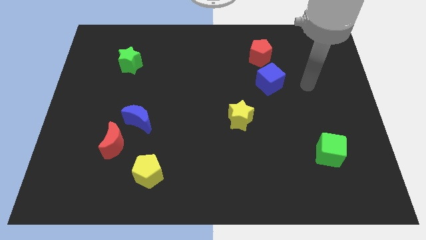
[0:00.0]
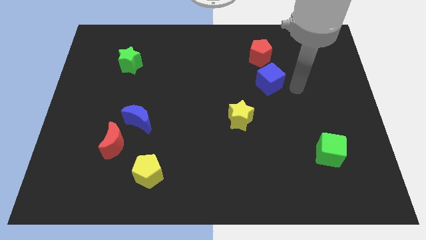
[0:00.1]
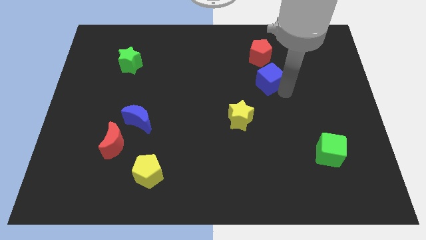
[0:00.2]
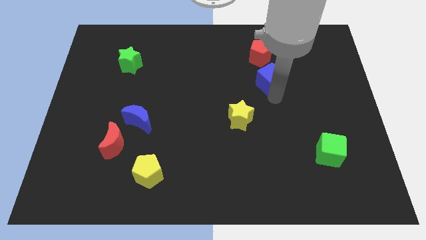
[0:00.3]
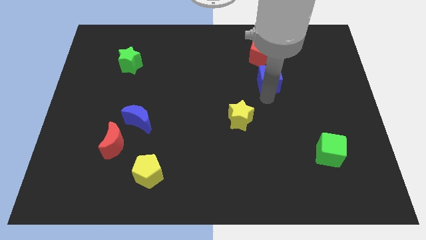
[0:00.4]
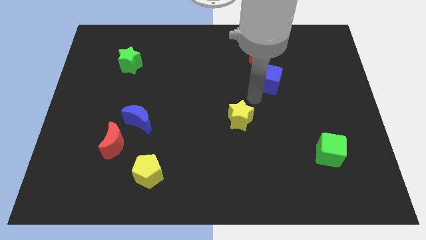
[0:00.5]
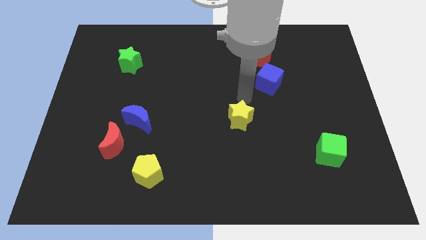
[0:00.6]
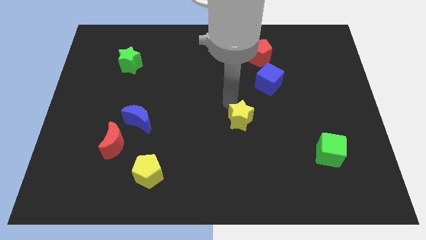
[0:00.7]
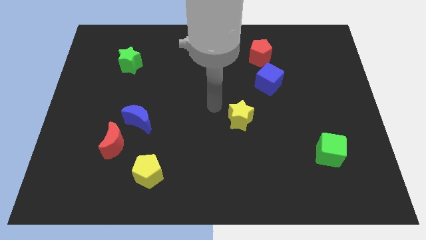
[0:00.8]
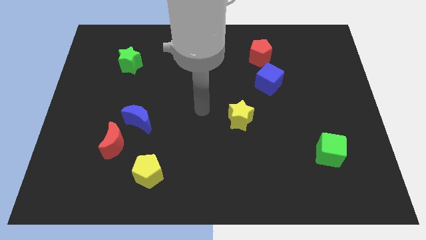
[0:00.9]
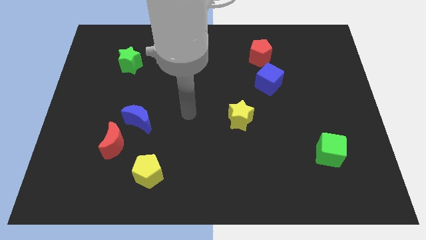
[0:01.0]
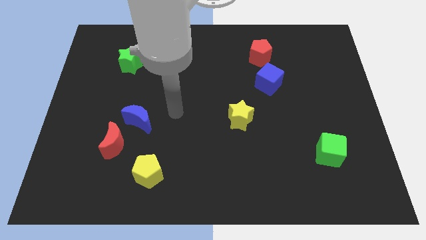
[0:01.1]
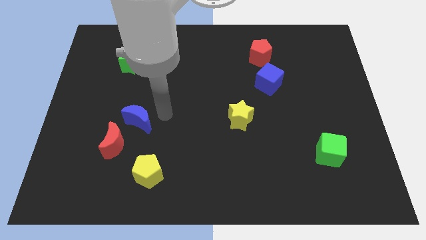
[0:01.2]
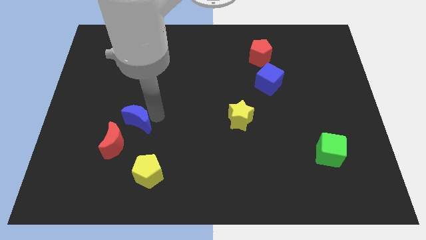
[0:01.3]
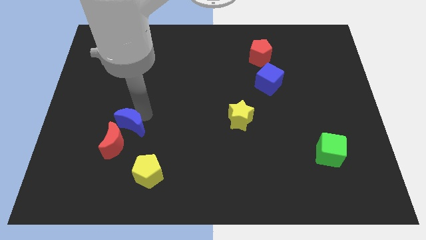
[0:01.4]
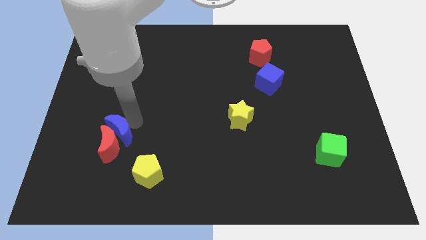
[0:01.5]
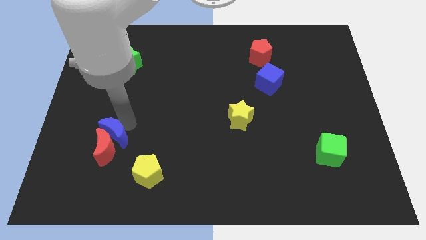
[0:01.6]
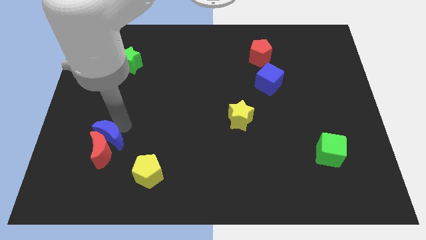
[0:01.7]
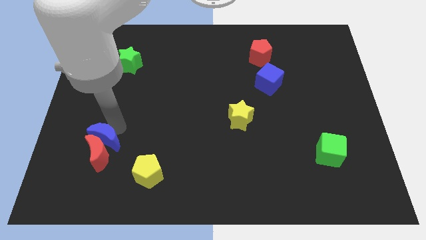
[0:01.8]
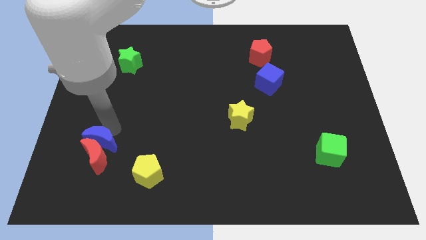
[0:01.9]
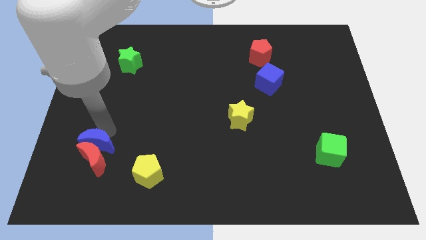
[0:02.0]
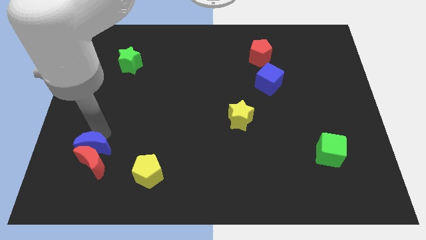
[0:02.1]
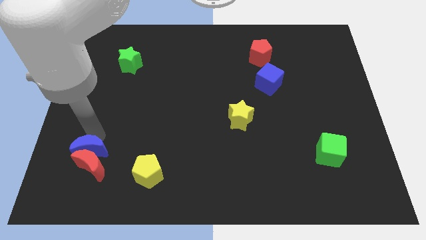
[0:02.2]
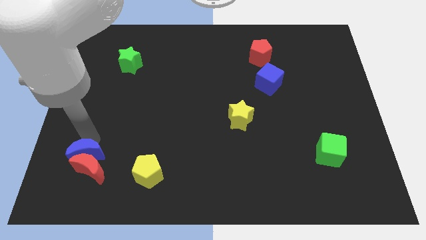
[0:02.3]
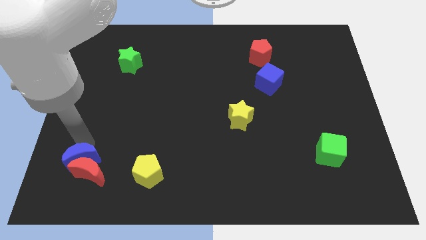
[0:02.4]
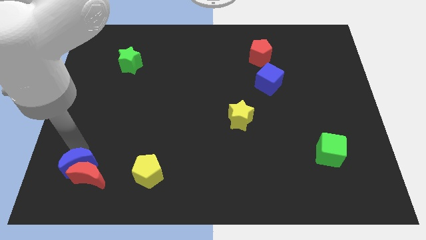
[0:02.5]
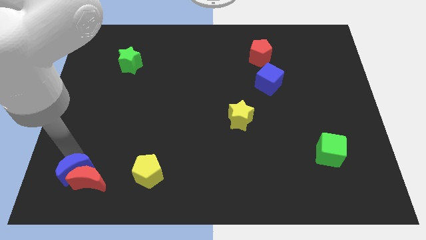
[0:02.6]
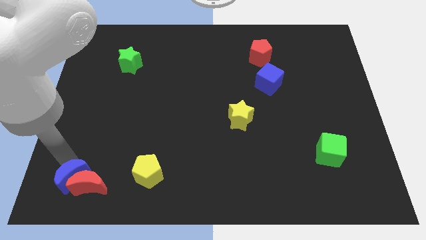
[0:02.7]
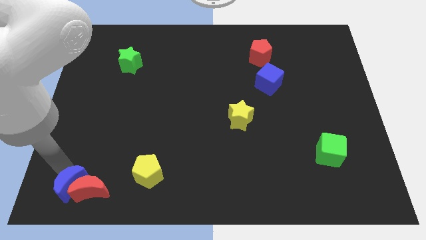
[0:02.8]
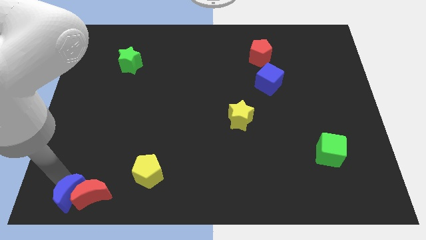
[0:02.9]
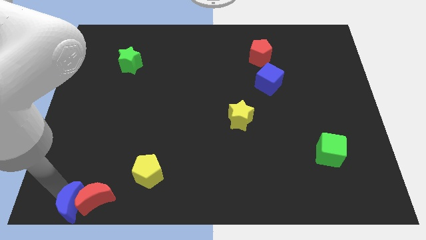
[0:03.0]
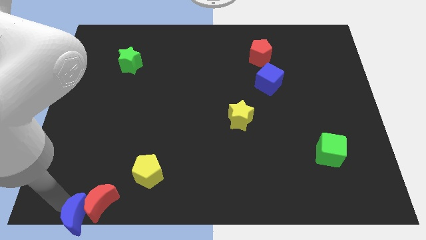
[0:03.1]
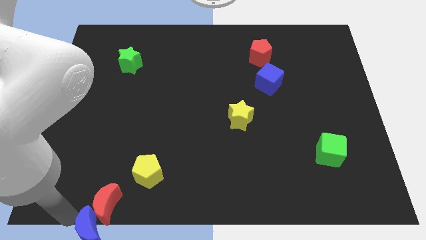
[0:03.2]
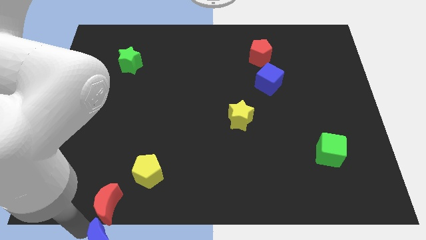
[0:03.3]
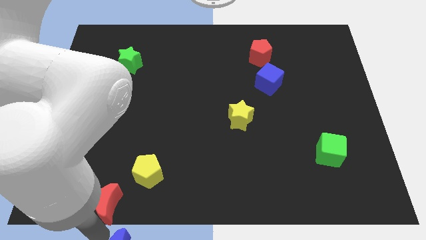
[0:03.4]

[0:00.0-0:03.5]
pull the red moon apart from the blue moon

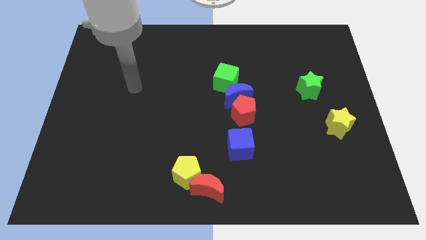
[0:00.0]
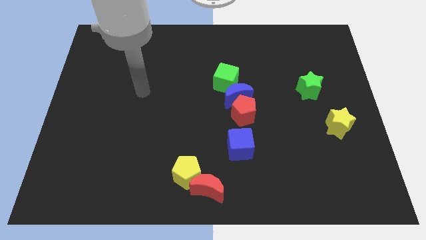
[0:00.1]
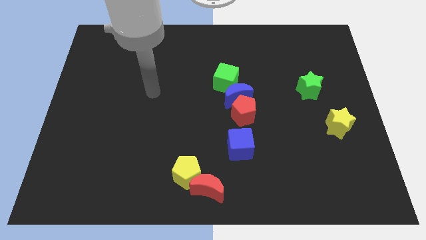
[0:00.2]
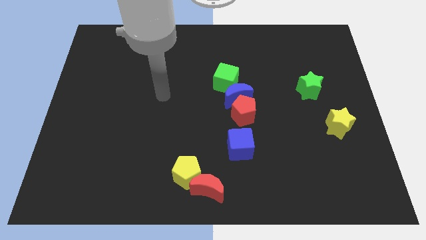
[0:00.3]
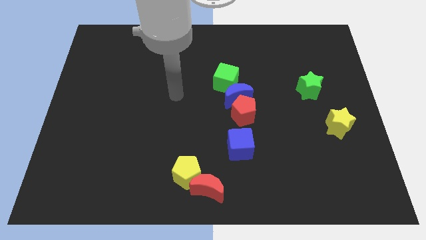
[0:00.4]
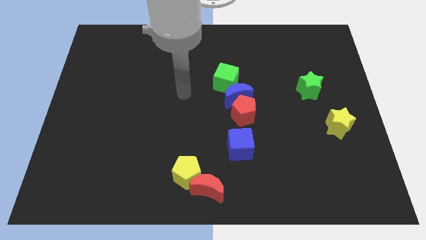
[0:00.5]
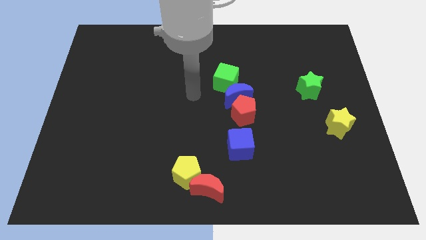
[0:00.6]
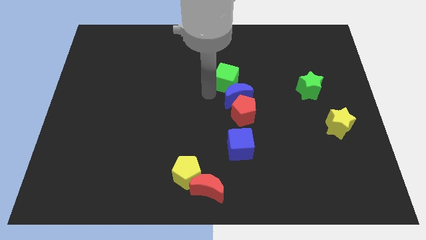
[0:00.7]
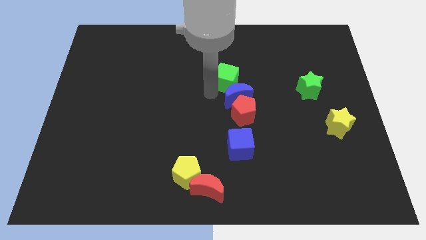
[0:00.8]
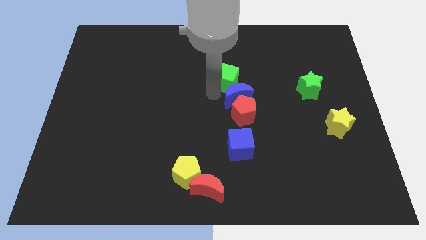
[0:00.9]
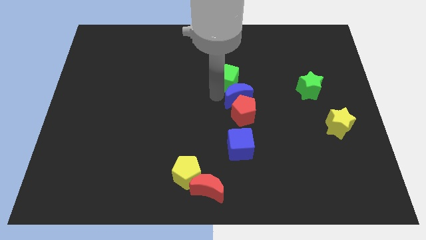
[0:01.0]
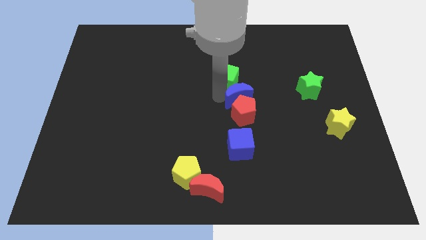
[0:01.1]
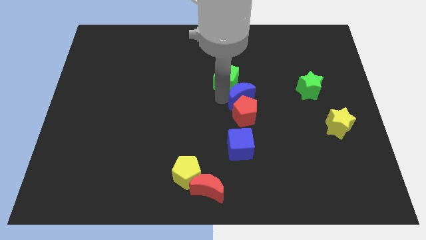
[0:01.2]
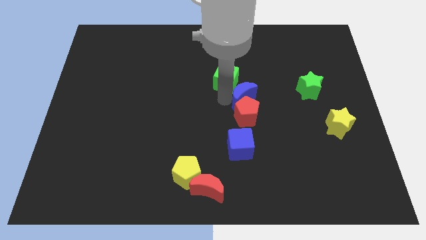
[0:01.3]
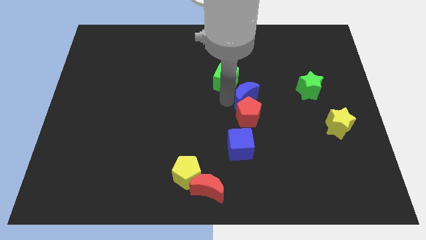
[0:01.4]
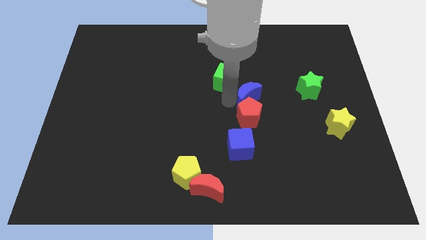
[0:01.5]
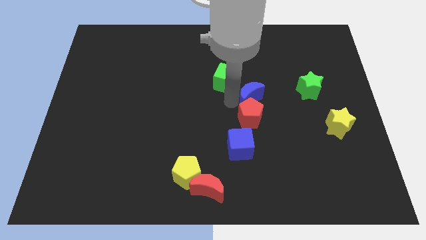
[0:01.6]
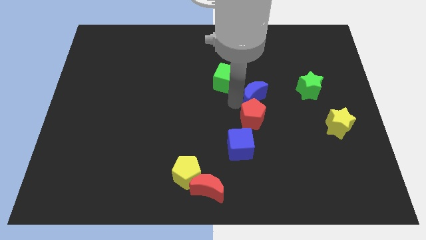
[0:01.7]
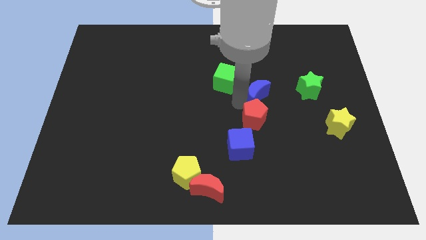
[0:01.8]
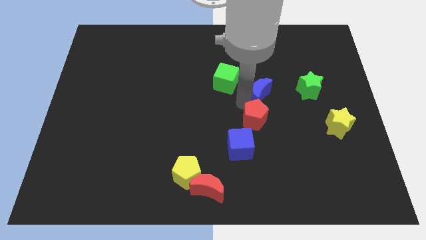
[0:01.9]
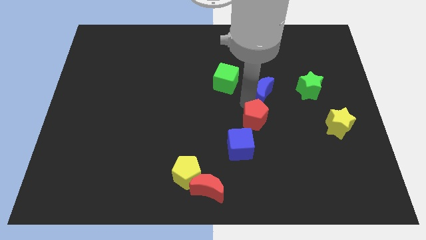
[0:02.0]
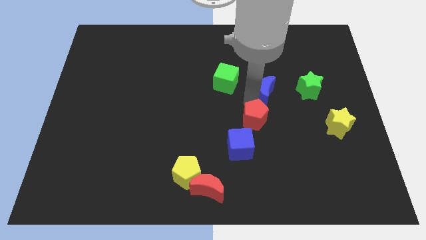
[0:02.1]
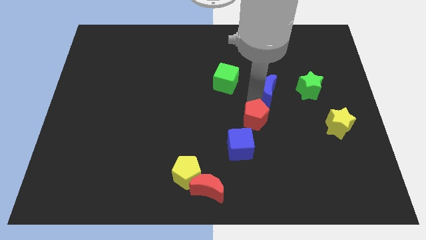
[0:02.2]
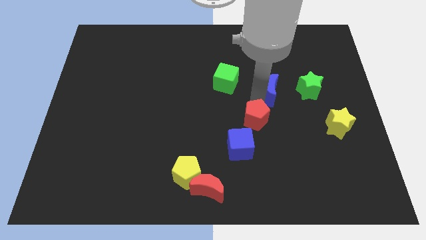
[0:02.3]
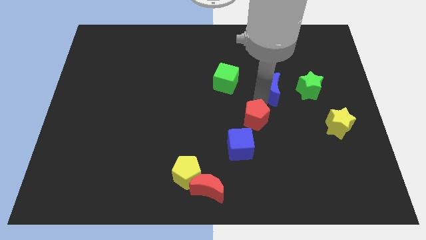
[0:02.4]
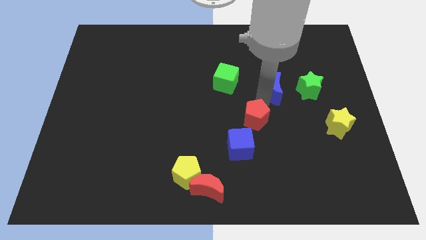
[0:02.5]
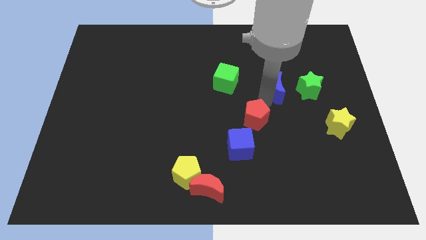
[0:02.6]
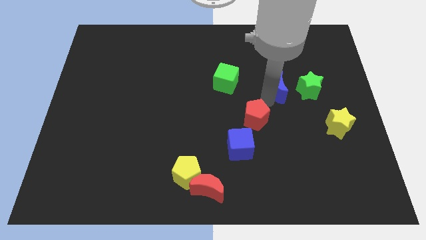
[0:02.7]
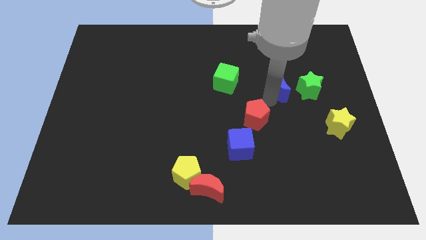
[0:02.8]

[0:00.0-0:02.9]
pull the blue moon apart from the red pentagon and green cube

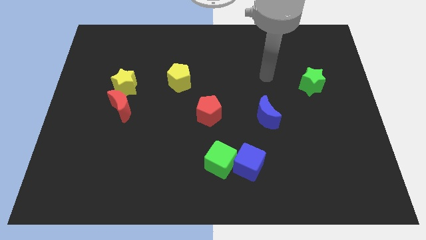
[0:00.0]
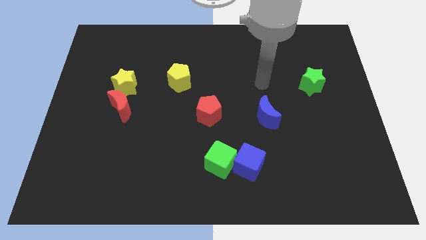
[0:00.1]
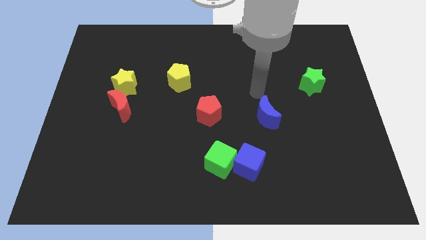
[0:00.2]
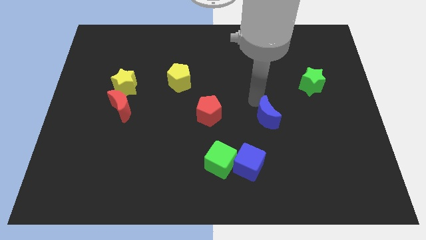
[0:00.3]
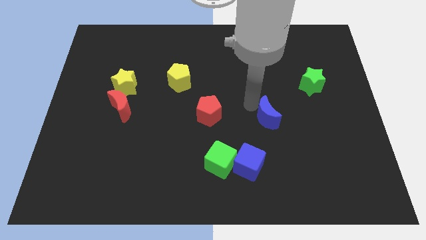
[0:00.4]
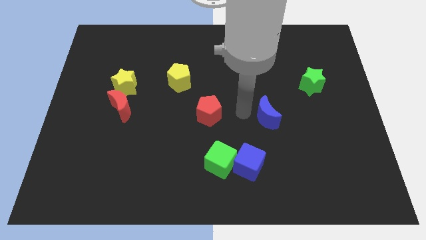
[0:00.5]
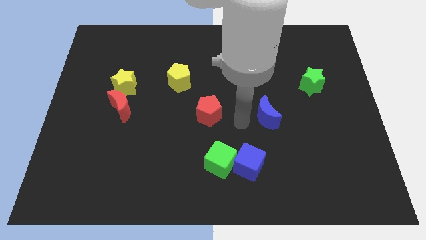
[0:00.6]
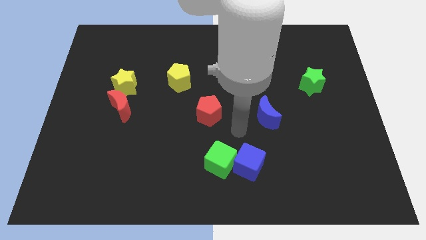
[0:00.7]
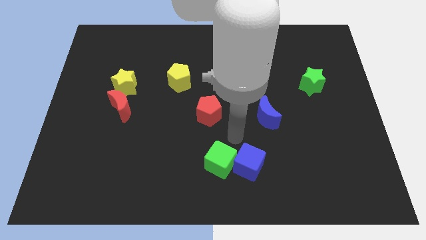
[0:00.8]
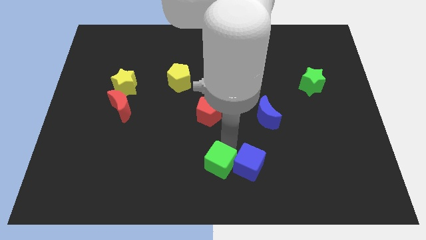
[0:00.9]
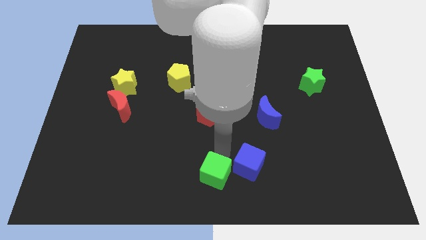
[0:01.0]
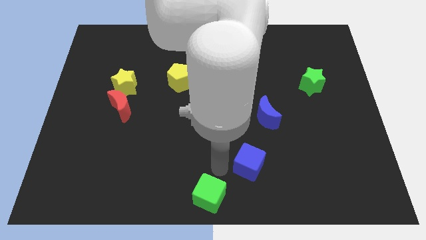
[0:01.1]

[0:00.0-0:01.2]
move the blue cube away from the green cube

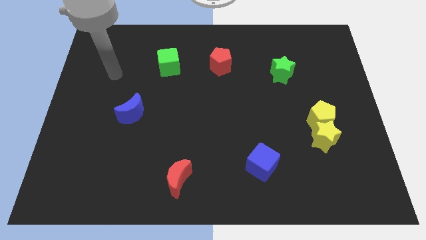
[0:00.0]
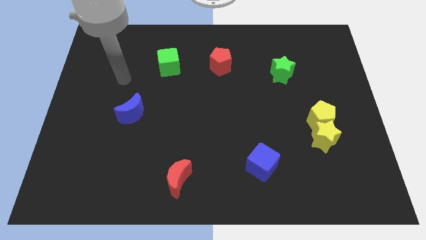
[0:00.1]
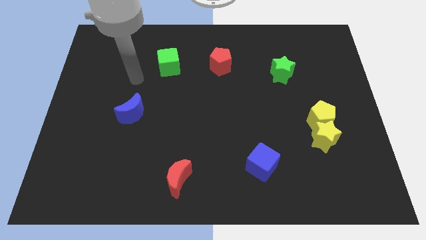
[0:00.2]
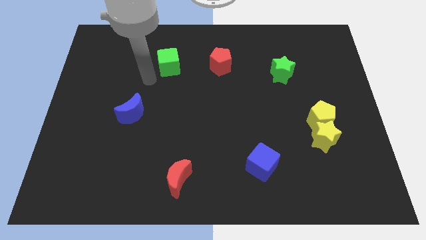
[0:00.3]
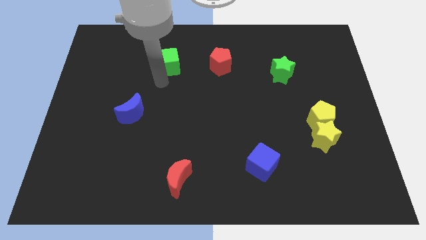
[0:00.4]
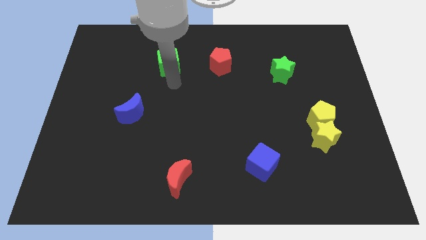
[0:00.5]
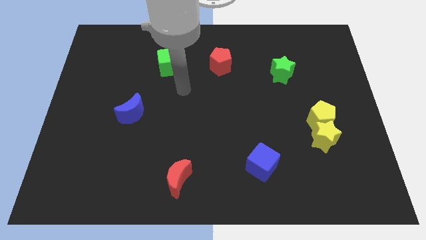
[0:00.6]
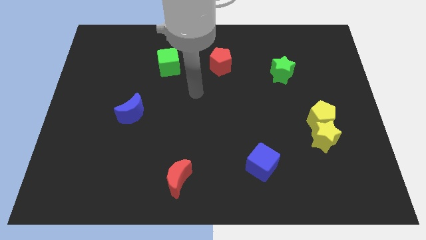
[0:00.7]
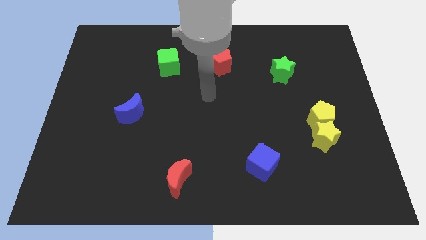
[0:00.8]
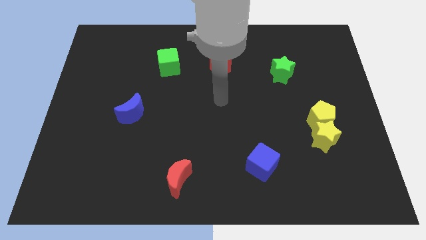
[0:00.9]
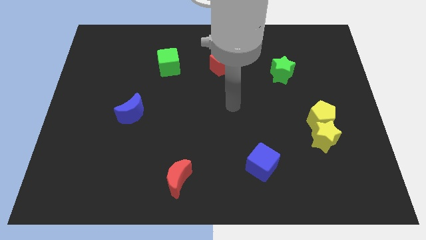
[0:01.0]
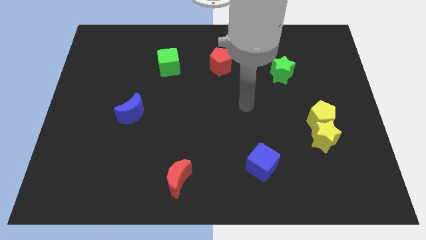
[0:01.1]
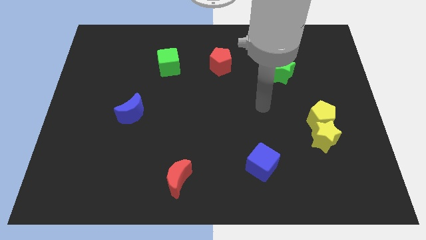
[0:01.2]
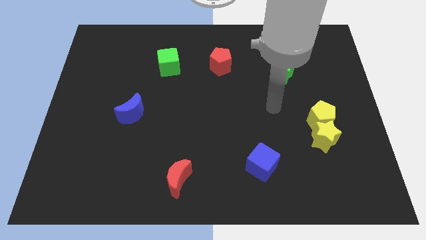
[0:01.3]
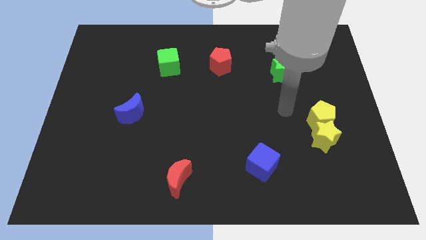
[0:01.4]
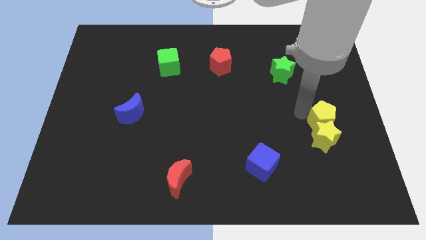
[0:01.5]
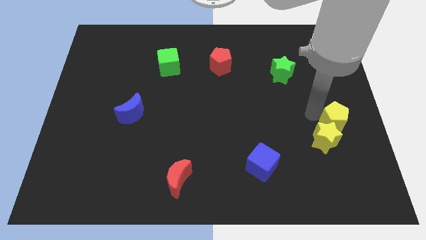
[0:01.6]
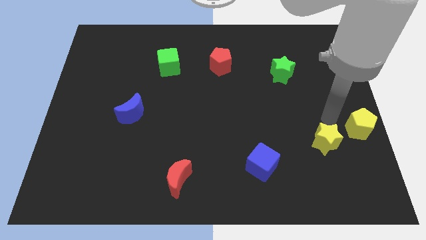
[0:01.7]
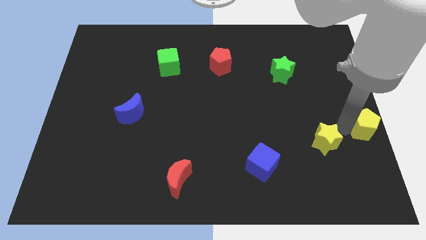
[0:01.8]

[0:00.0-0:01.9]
pull the yellow star apart from the yellow pentagon
